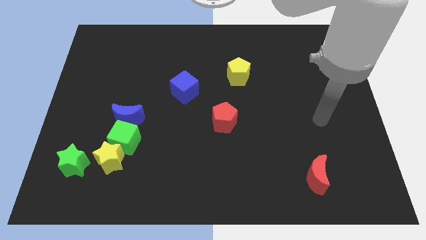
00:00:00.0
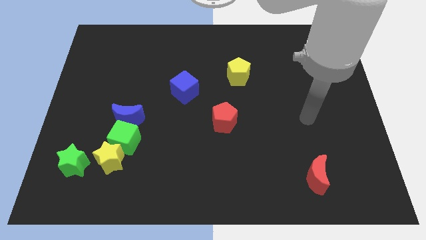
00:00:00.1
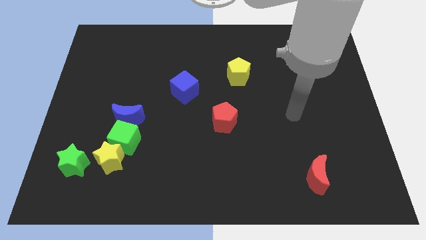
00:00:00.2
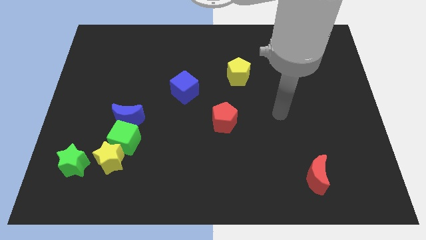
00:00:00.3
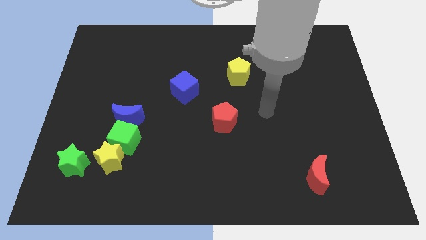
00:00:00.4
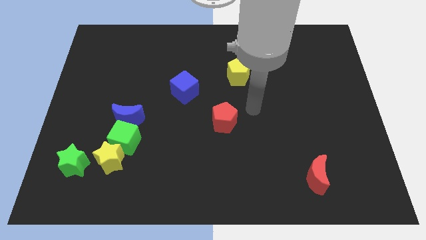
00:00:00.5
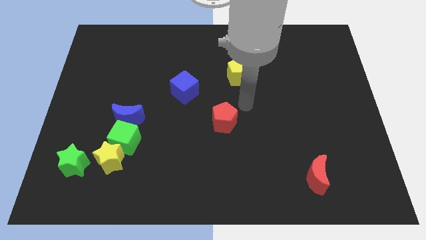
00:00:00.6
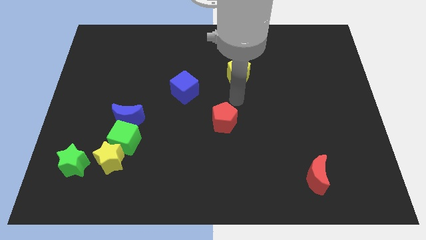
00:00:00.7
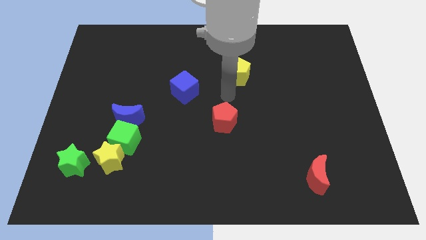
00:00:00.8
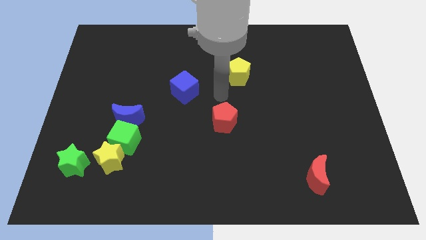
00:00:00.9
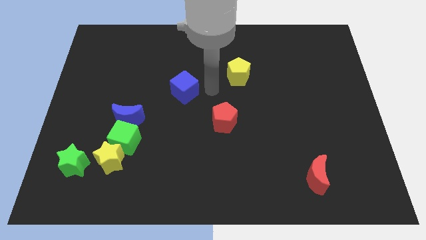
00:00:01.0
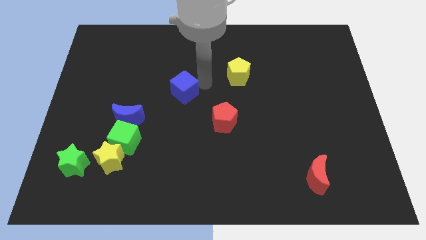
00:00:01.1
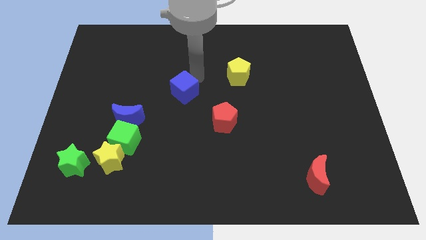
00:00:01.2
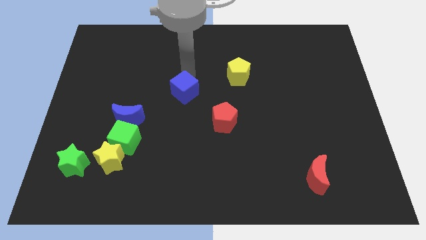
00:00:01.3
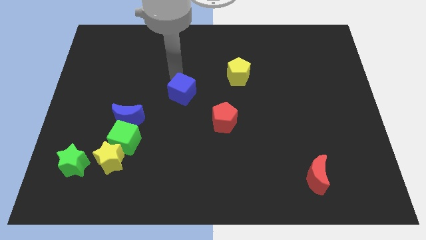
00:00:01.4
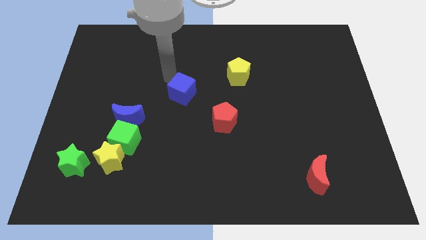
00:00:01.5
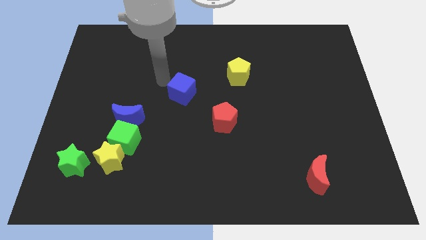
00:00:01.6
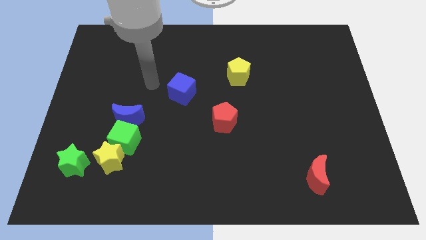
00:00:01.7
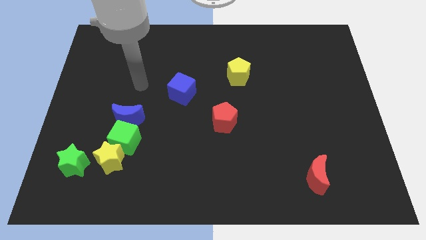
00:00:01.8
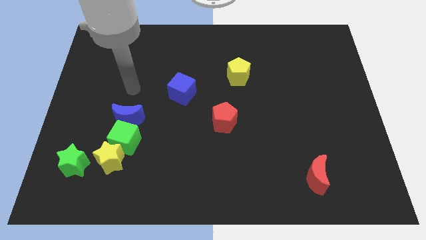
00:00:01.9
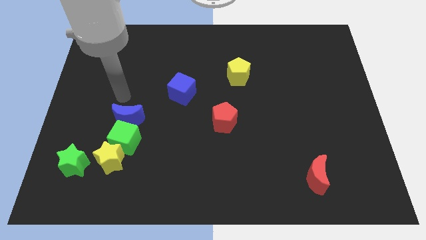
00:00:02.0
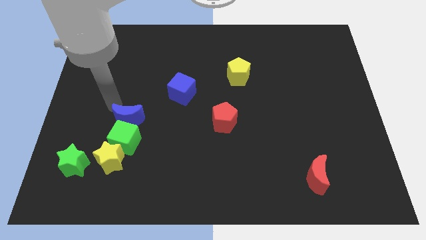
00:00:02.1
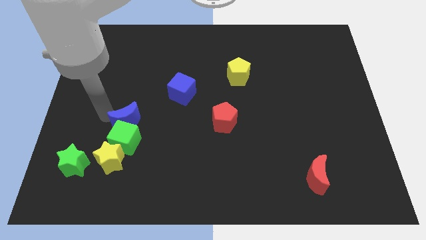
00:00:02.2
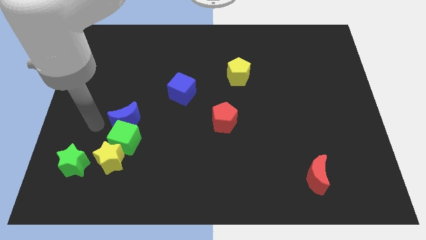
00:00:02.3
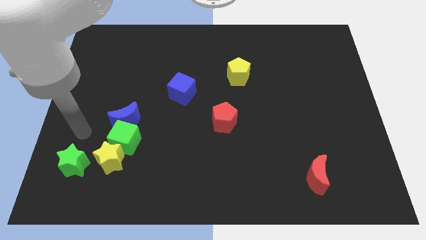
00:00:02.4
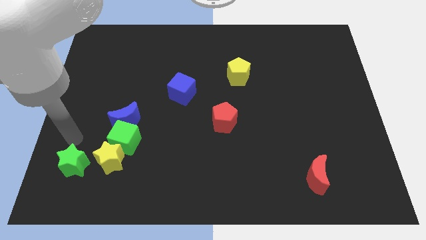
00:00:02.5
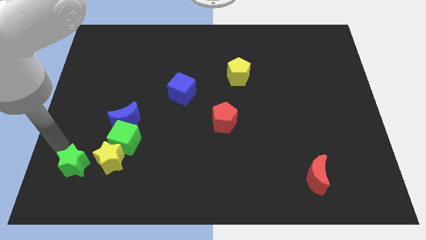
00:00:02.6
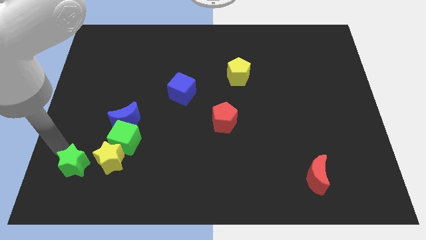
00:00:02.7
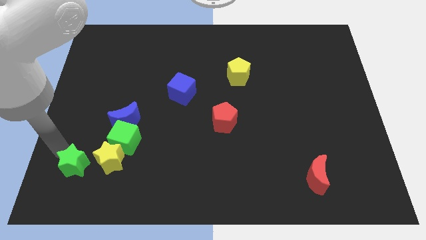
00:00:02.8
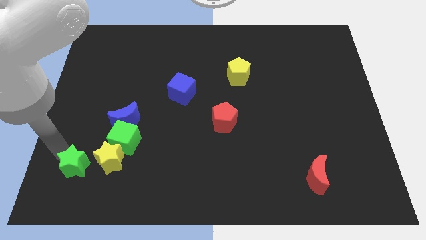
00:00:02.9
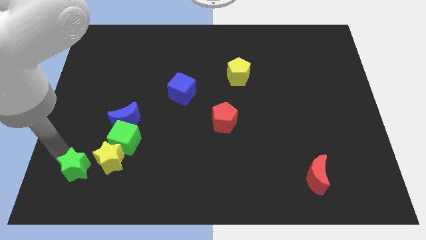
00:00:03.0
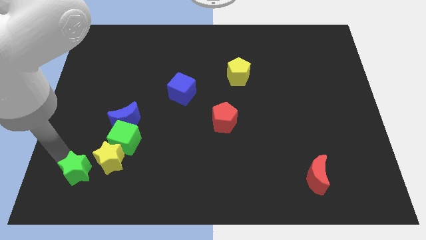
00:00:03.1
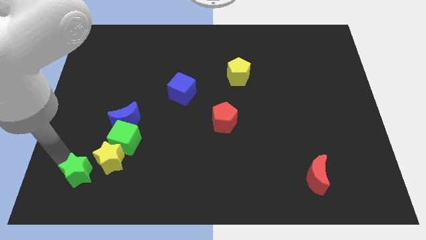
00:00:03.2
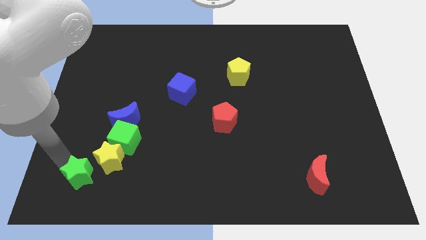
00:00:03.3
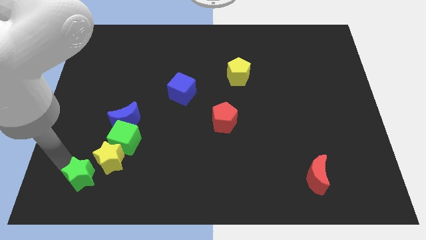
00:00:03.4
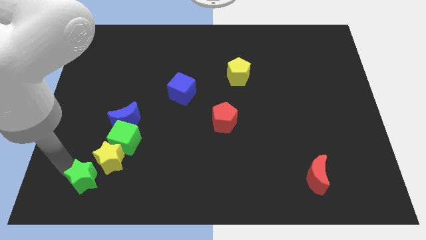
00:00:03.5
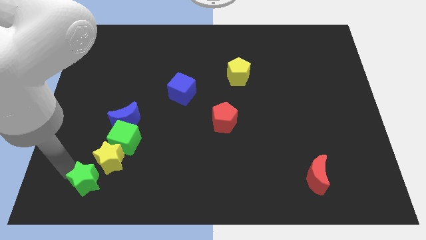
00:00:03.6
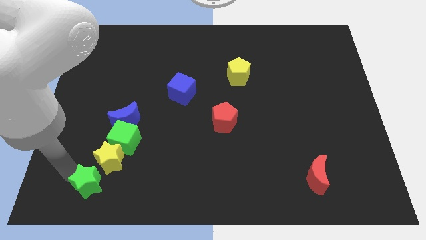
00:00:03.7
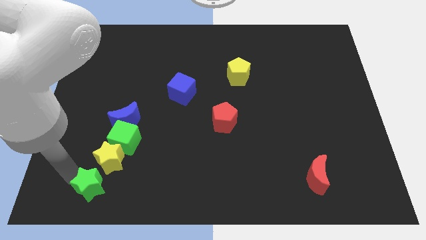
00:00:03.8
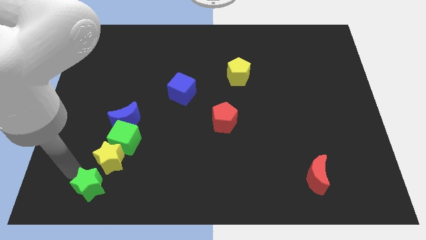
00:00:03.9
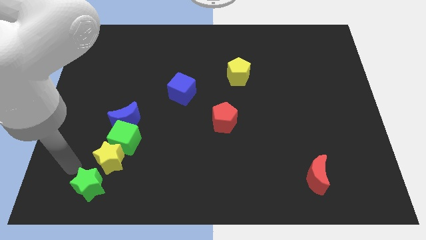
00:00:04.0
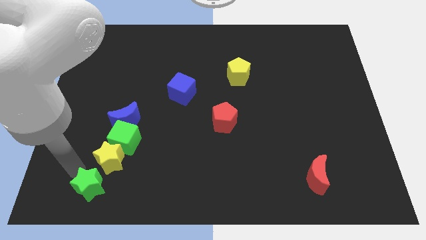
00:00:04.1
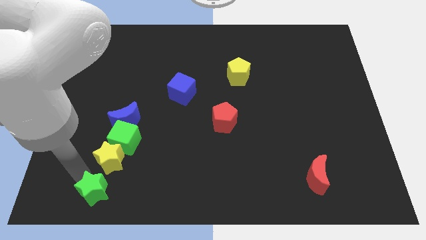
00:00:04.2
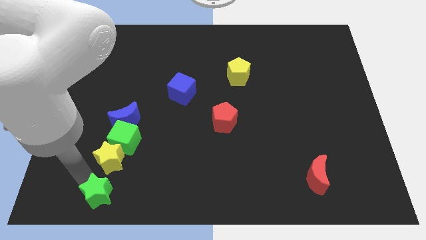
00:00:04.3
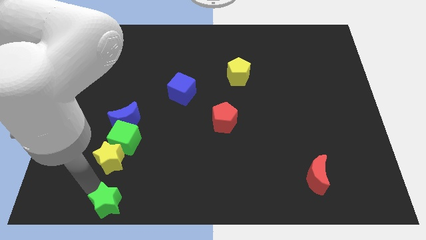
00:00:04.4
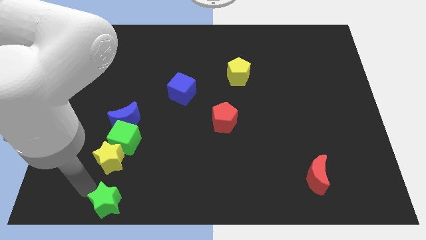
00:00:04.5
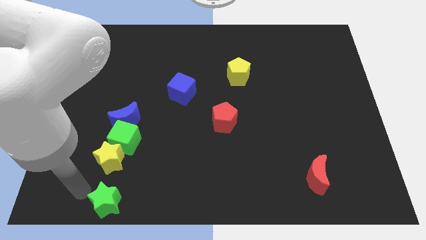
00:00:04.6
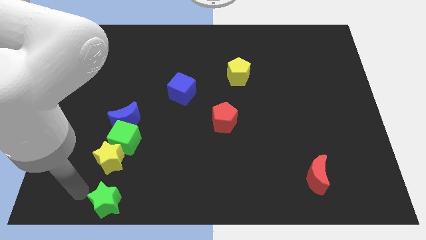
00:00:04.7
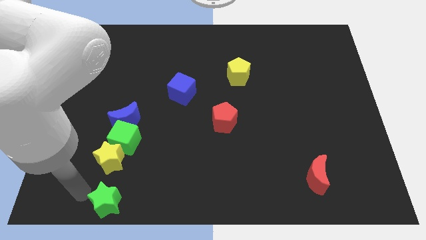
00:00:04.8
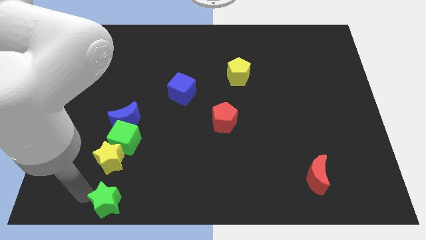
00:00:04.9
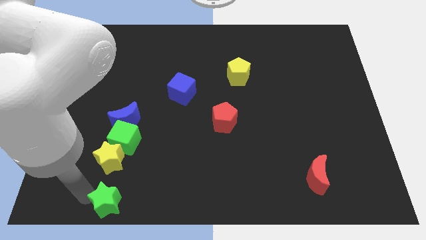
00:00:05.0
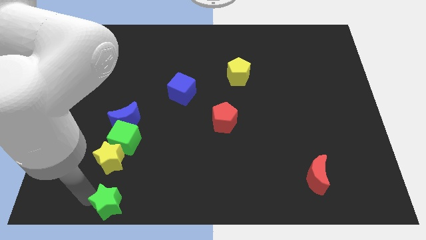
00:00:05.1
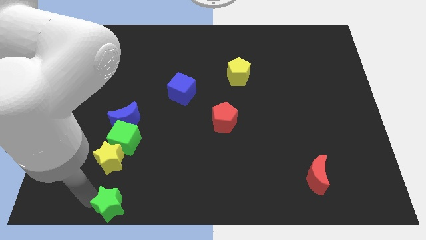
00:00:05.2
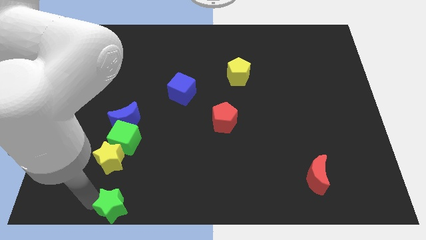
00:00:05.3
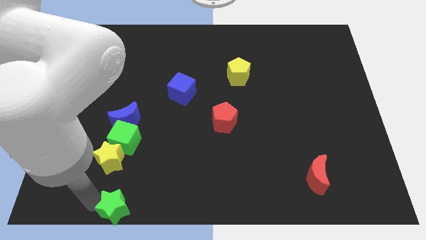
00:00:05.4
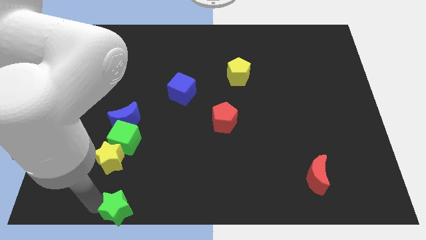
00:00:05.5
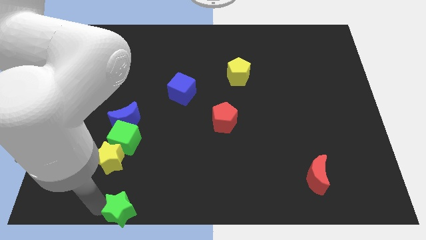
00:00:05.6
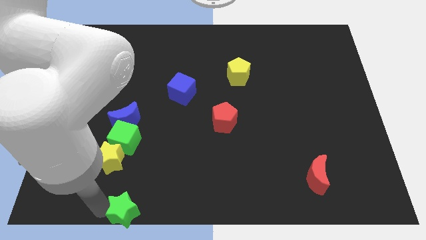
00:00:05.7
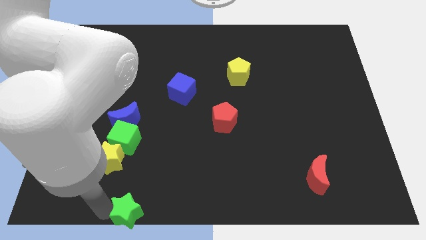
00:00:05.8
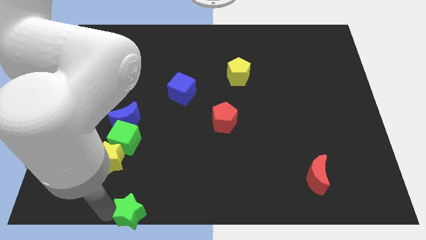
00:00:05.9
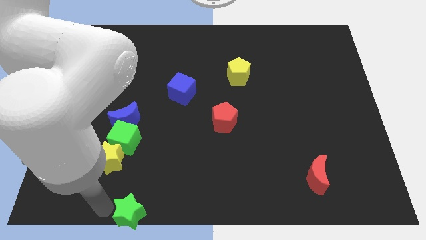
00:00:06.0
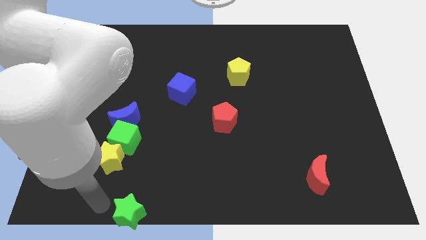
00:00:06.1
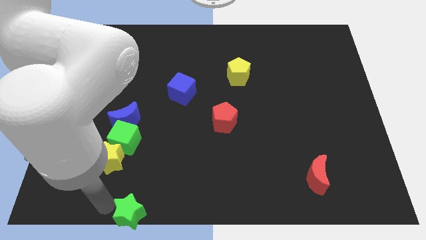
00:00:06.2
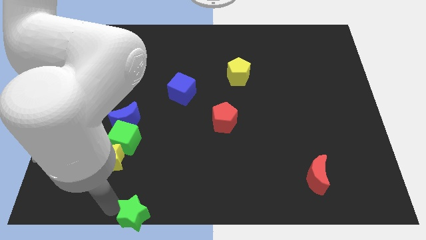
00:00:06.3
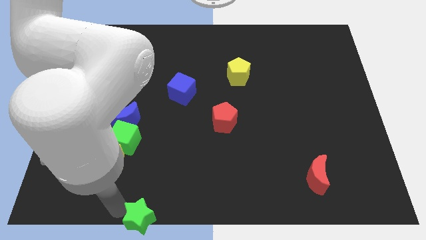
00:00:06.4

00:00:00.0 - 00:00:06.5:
slide the green star to the bottom side
